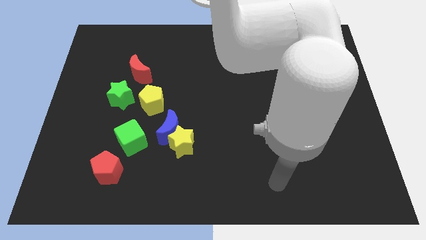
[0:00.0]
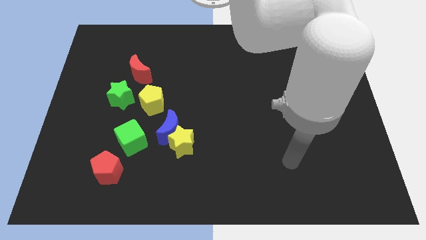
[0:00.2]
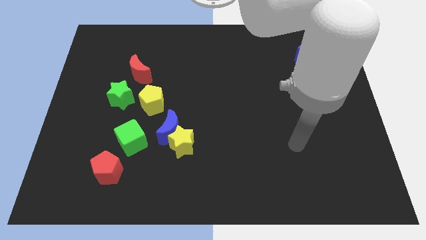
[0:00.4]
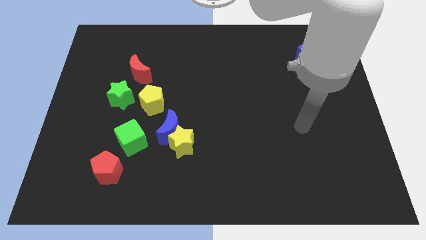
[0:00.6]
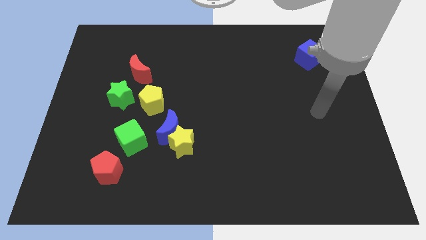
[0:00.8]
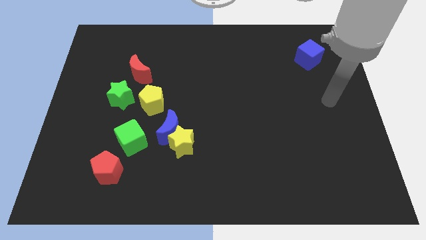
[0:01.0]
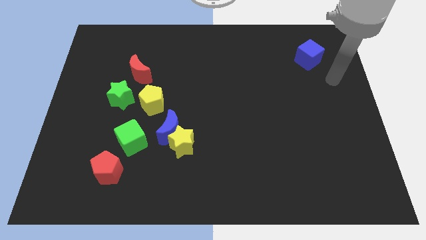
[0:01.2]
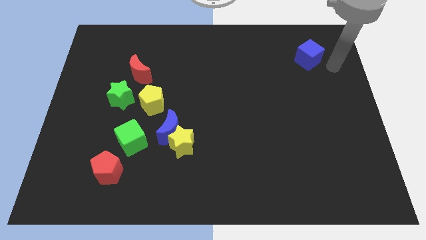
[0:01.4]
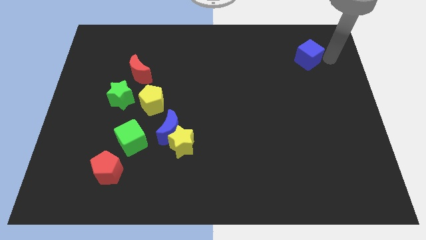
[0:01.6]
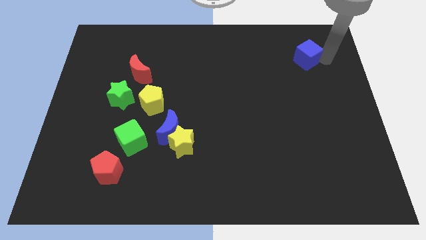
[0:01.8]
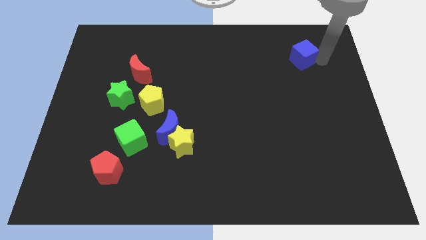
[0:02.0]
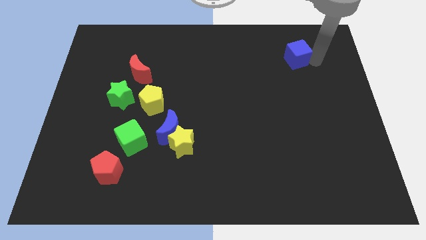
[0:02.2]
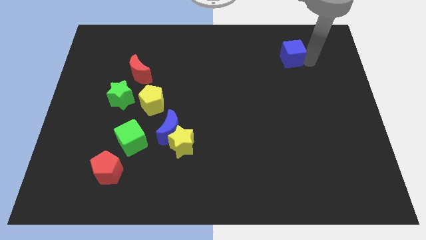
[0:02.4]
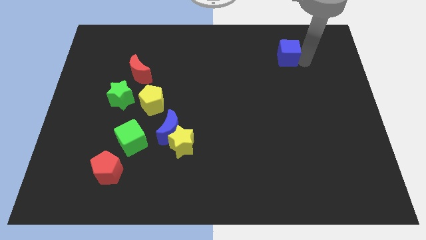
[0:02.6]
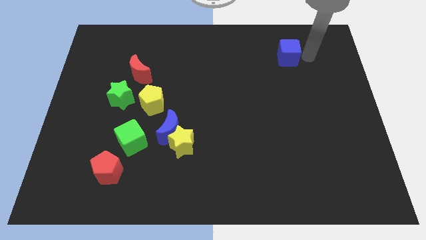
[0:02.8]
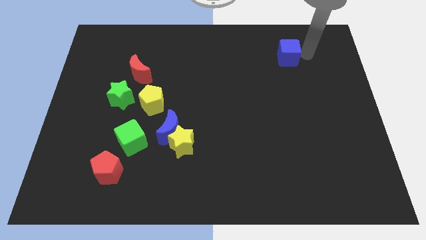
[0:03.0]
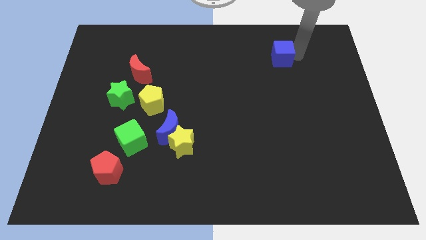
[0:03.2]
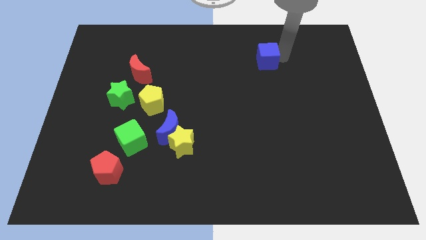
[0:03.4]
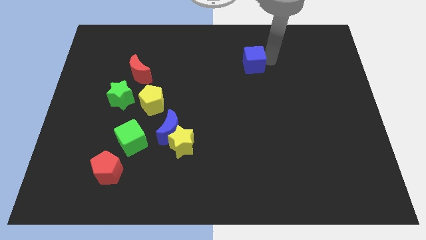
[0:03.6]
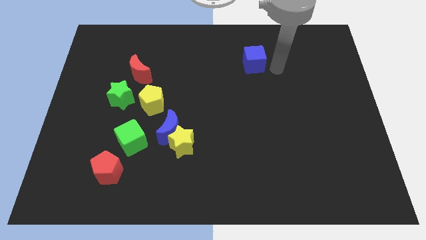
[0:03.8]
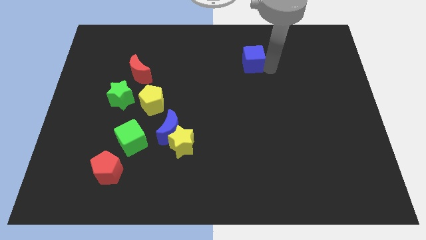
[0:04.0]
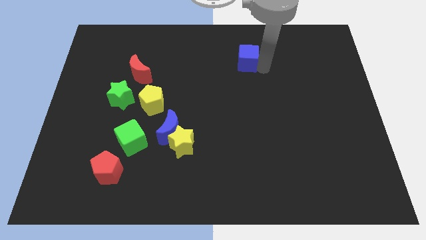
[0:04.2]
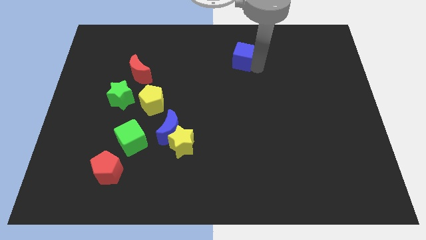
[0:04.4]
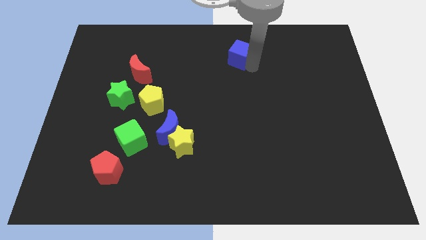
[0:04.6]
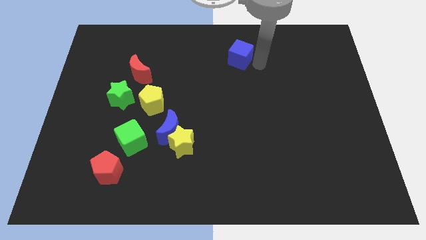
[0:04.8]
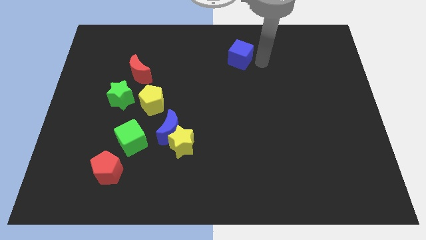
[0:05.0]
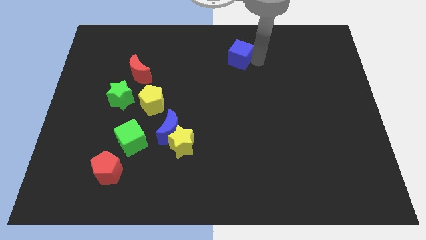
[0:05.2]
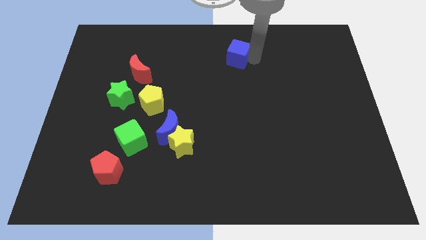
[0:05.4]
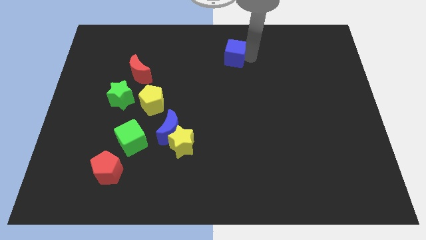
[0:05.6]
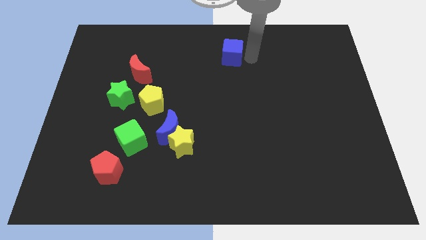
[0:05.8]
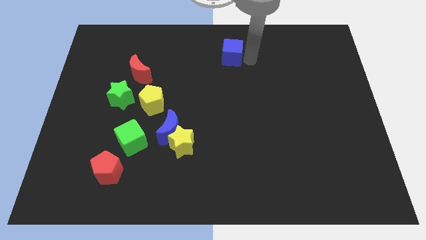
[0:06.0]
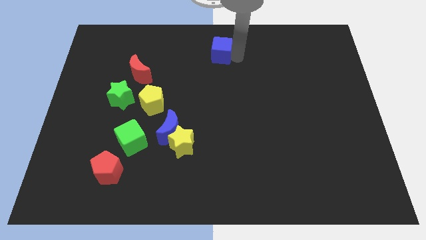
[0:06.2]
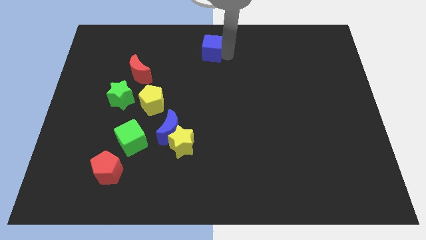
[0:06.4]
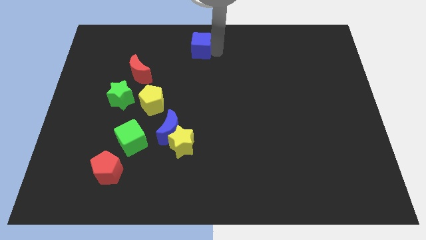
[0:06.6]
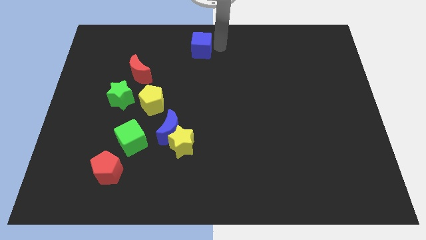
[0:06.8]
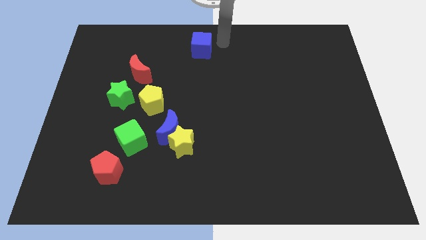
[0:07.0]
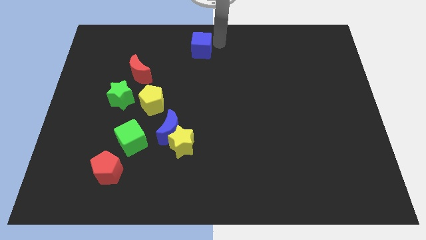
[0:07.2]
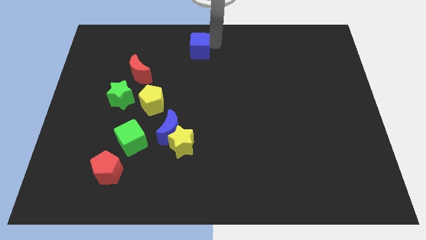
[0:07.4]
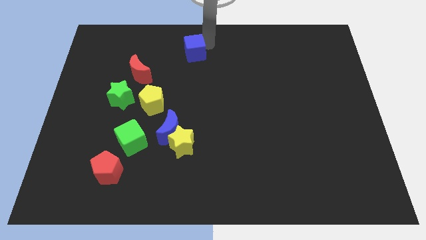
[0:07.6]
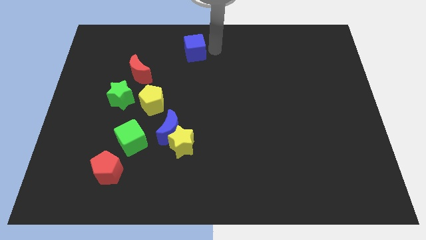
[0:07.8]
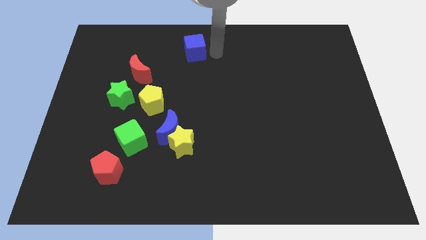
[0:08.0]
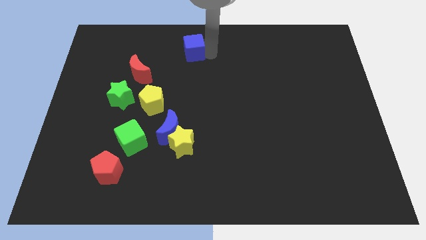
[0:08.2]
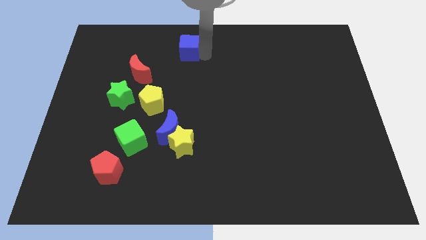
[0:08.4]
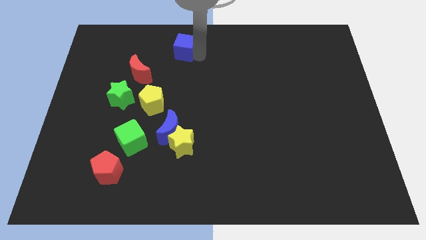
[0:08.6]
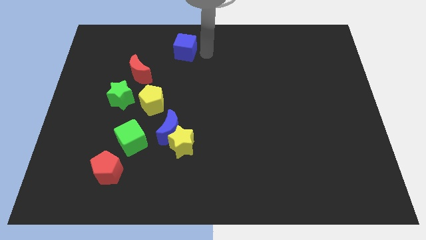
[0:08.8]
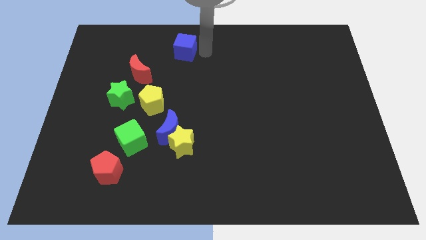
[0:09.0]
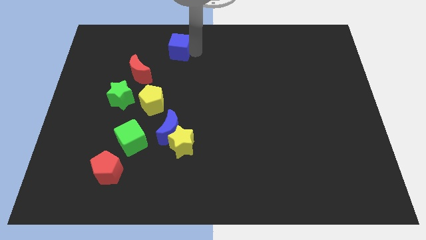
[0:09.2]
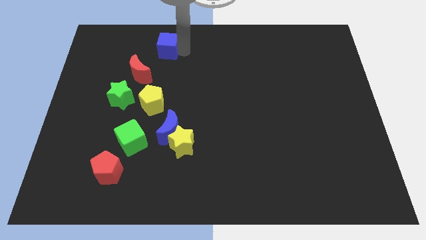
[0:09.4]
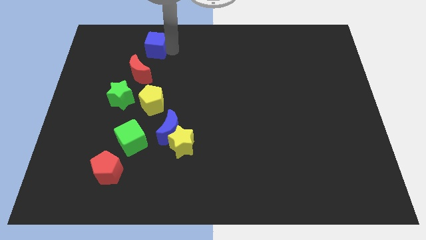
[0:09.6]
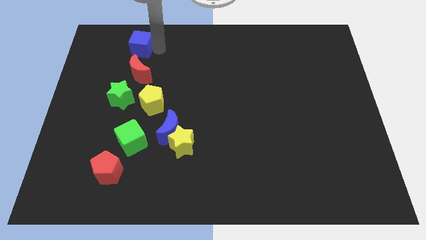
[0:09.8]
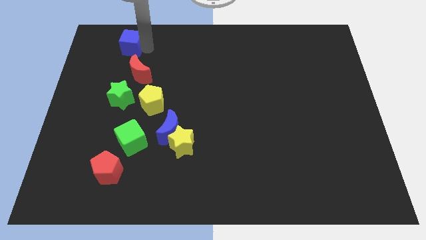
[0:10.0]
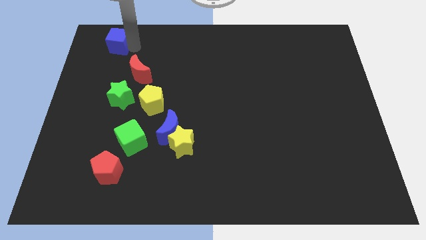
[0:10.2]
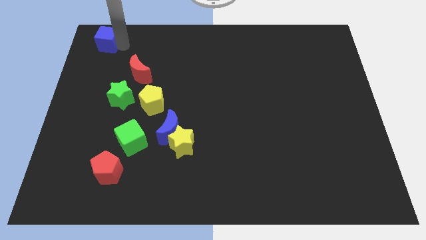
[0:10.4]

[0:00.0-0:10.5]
move the blue cube to the top left of the board

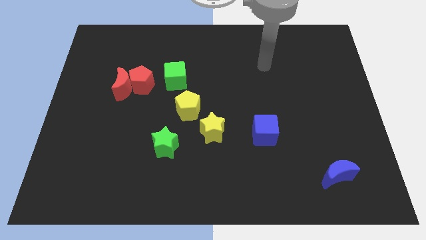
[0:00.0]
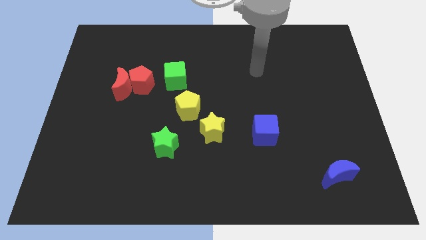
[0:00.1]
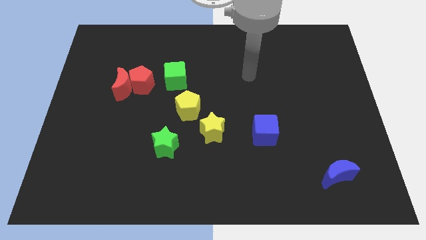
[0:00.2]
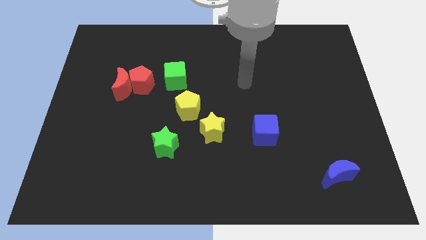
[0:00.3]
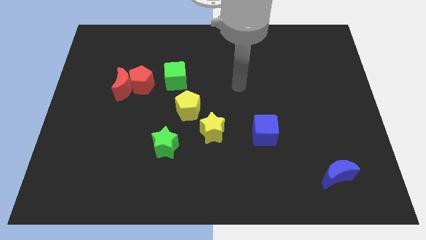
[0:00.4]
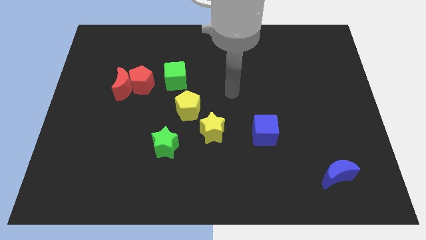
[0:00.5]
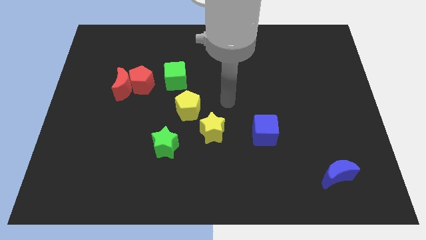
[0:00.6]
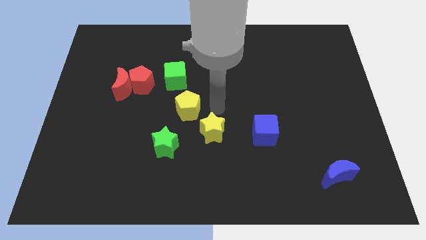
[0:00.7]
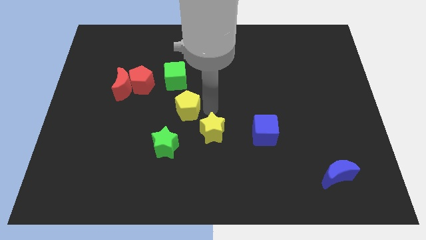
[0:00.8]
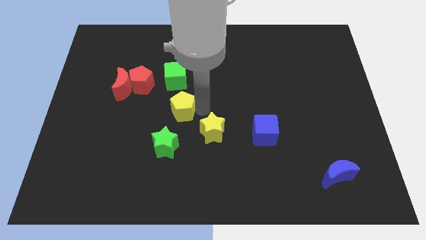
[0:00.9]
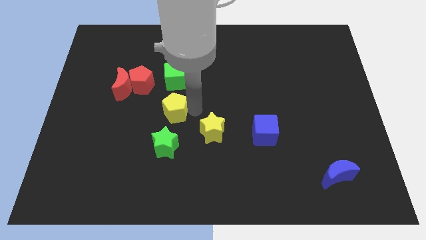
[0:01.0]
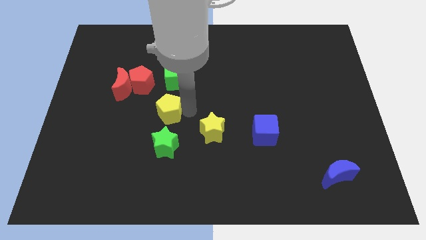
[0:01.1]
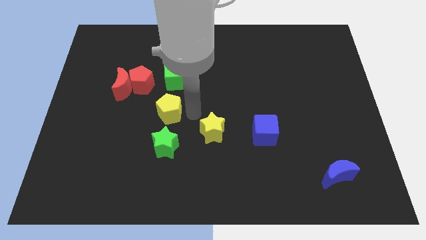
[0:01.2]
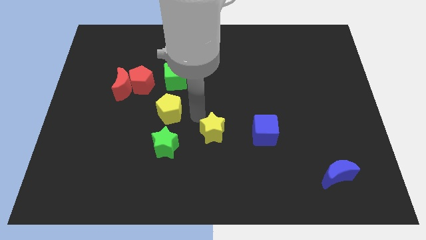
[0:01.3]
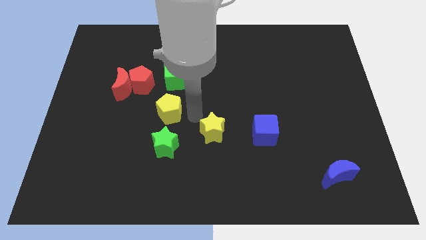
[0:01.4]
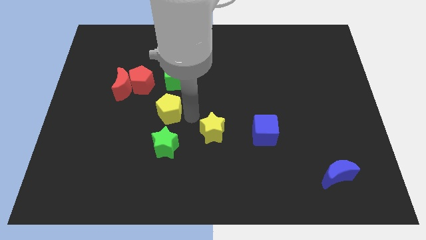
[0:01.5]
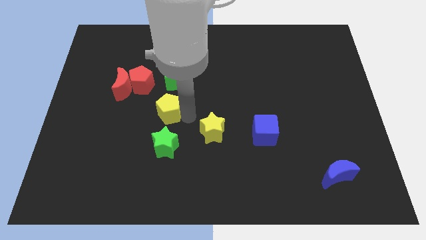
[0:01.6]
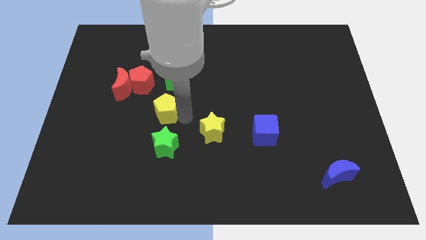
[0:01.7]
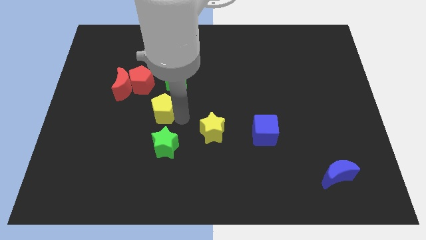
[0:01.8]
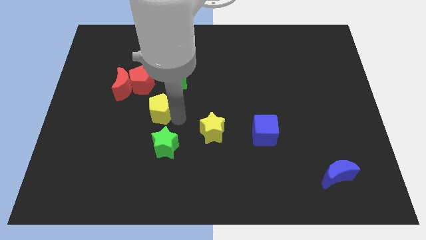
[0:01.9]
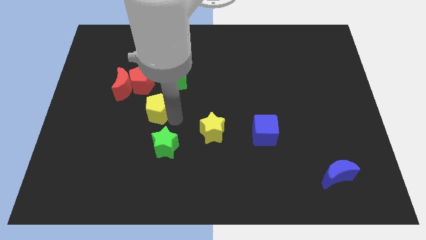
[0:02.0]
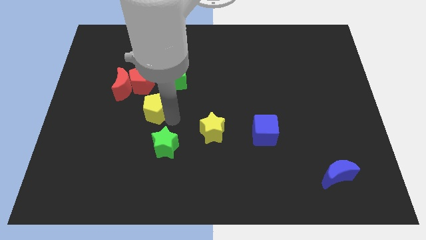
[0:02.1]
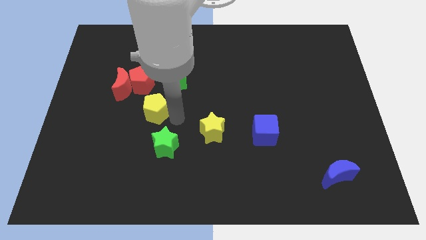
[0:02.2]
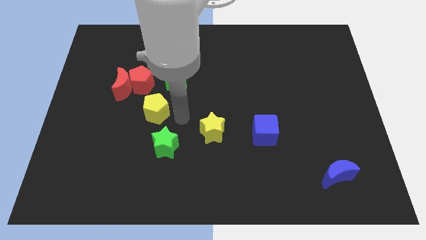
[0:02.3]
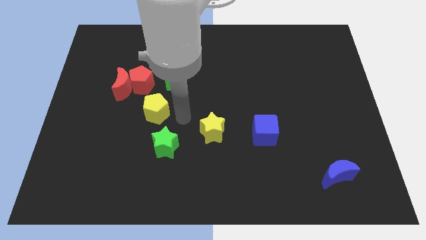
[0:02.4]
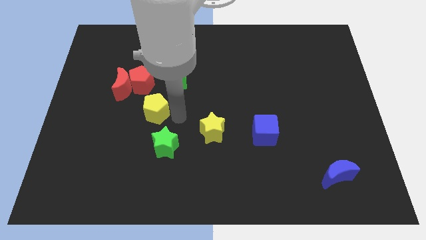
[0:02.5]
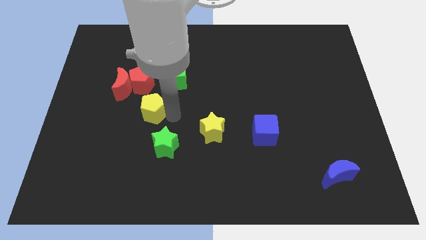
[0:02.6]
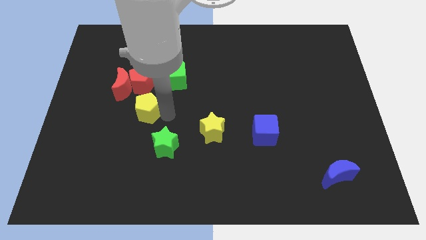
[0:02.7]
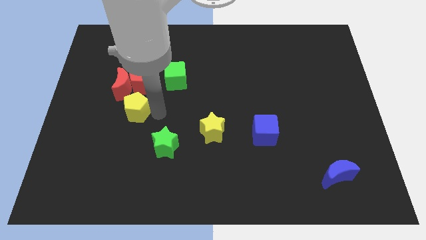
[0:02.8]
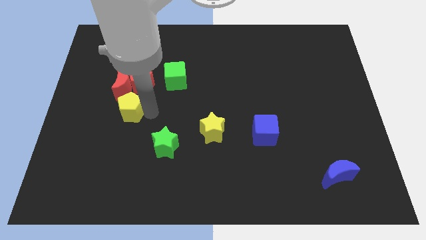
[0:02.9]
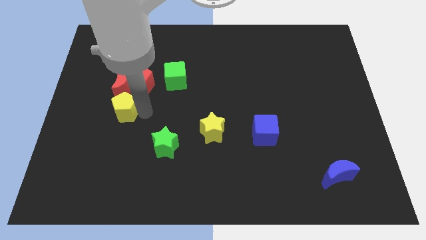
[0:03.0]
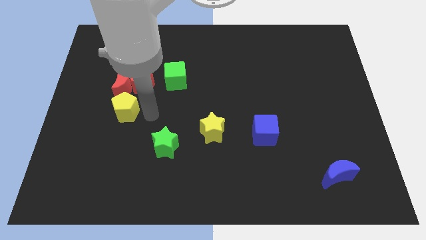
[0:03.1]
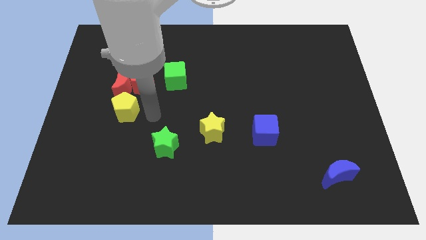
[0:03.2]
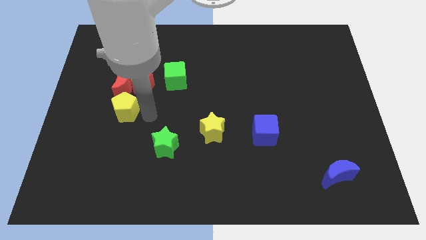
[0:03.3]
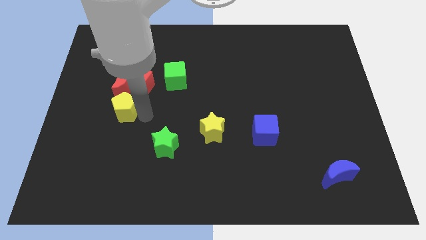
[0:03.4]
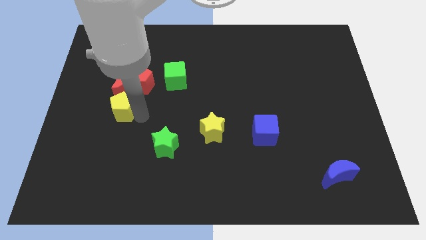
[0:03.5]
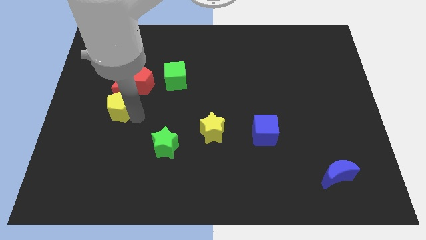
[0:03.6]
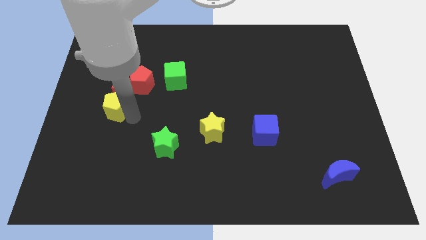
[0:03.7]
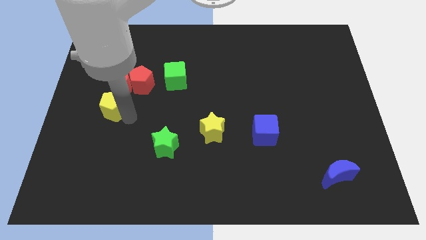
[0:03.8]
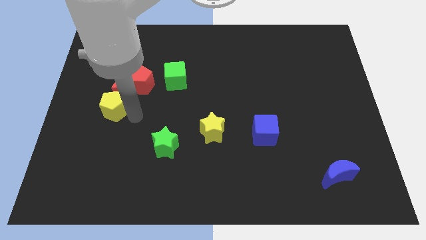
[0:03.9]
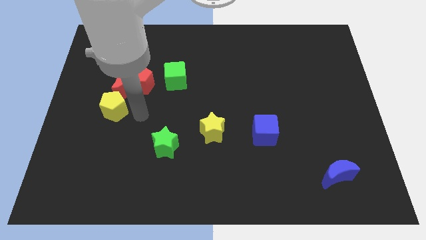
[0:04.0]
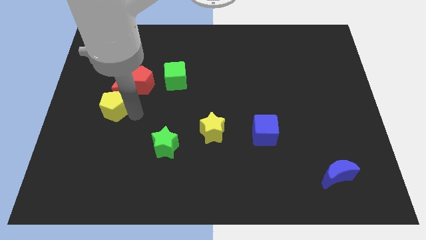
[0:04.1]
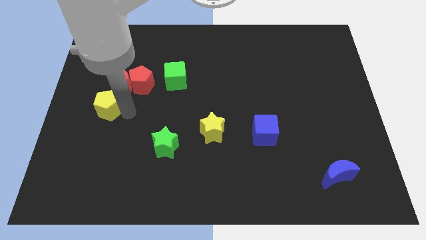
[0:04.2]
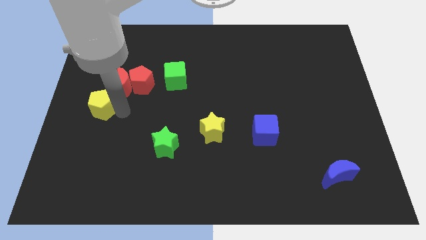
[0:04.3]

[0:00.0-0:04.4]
push the yellow pentagon to the center left
